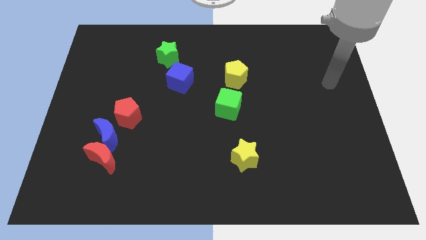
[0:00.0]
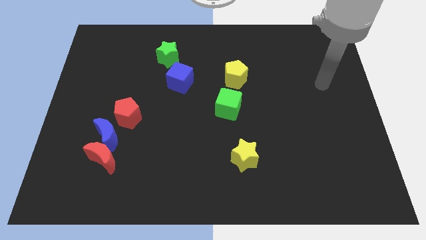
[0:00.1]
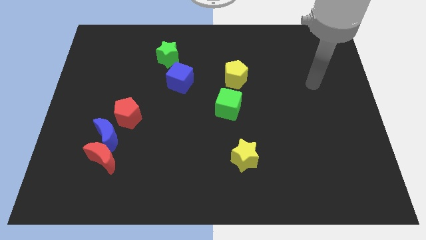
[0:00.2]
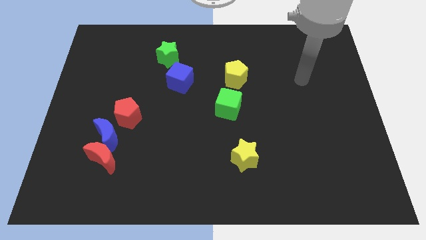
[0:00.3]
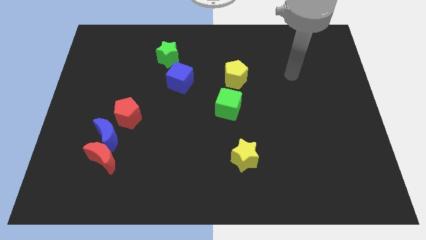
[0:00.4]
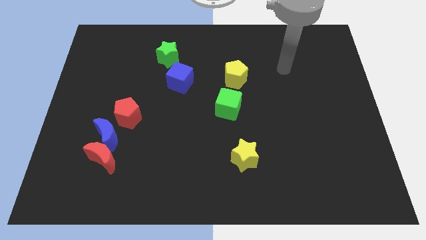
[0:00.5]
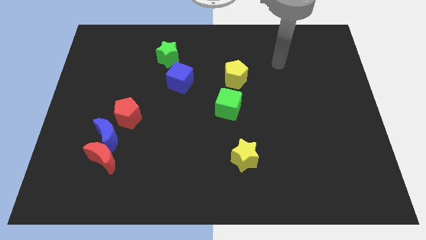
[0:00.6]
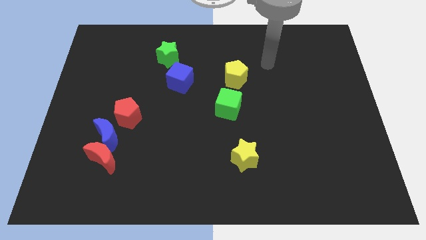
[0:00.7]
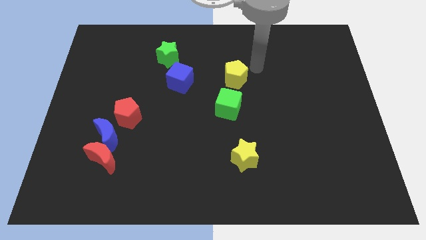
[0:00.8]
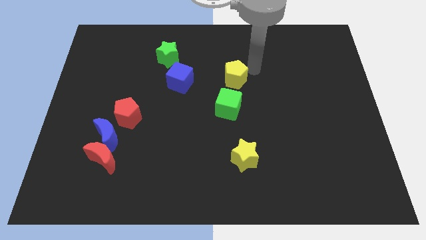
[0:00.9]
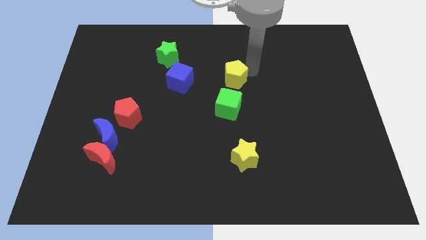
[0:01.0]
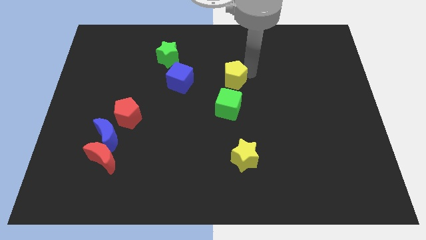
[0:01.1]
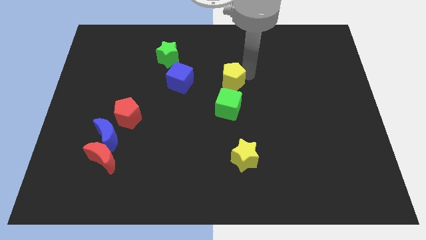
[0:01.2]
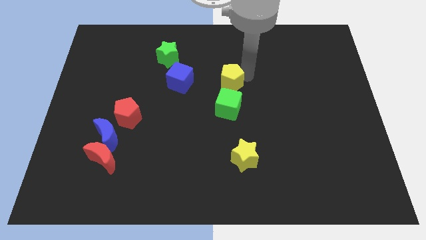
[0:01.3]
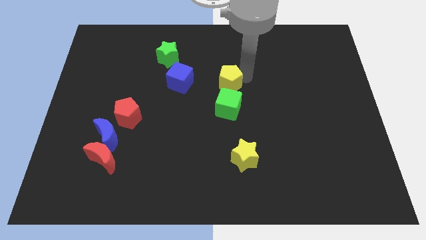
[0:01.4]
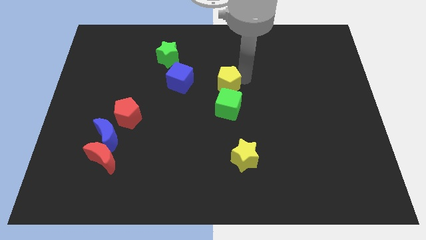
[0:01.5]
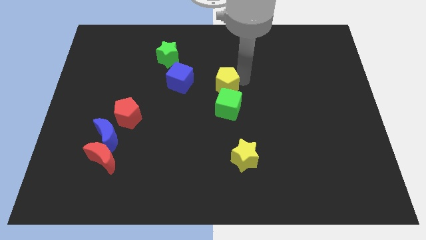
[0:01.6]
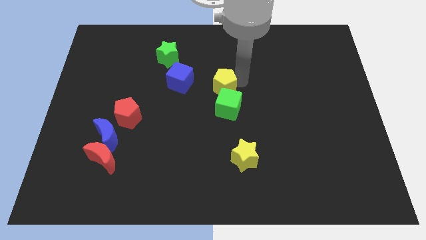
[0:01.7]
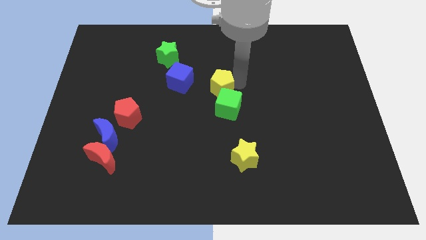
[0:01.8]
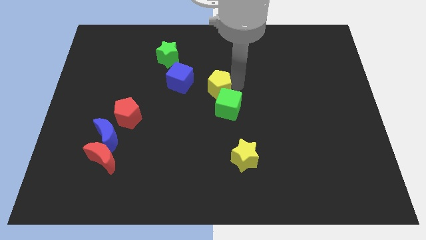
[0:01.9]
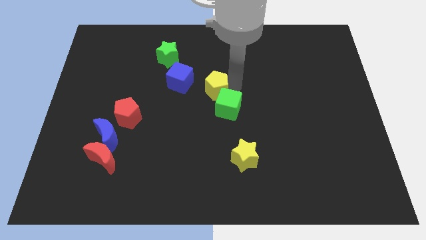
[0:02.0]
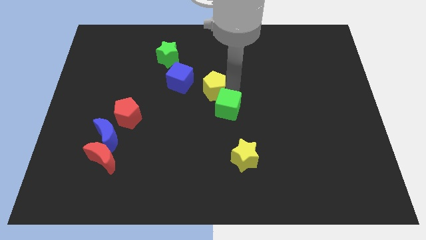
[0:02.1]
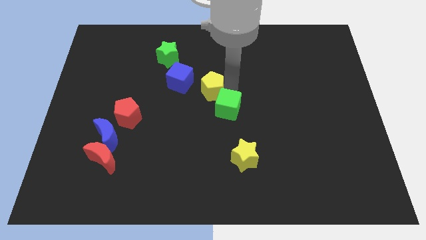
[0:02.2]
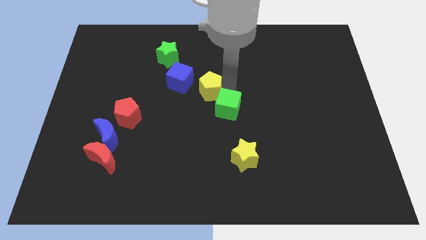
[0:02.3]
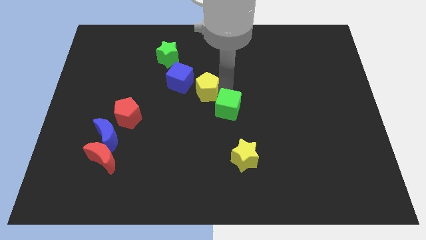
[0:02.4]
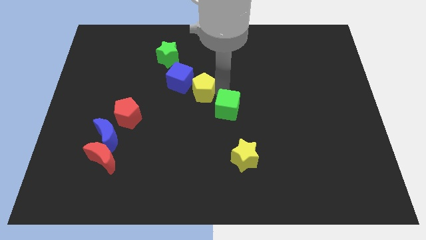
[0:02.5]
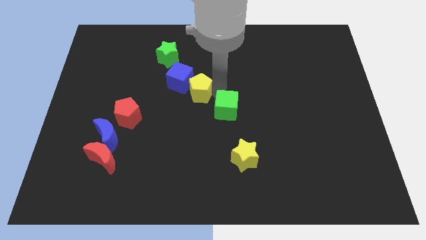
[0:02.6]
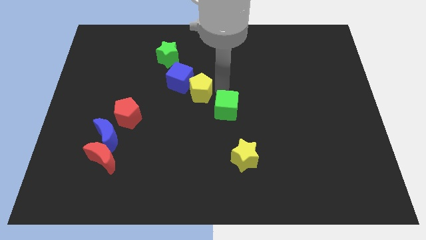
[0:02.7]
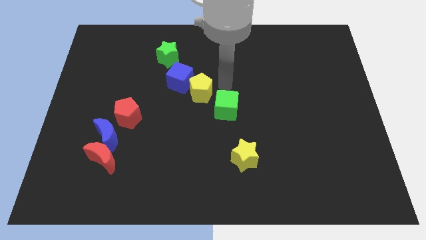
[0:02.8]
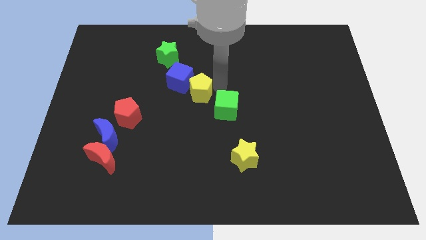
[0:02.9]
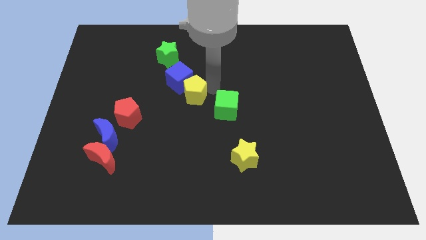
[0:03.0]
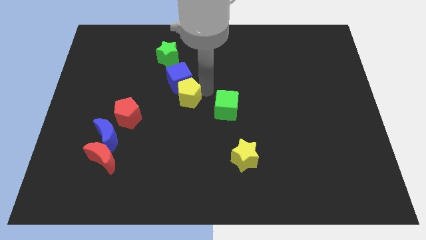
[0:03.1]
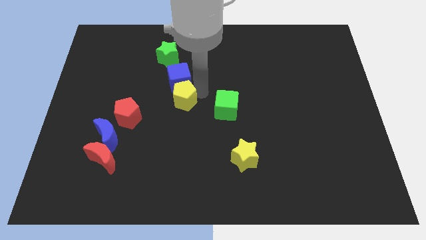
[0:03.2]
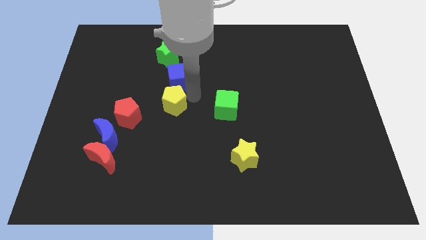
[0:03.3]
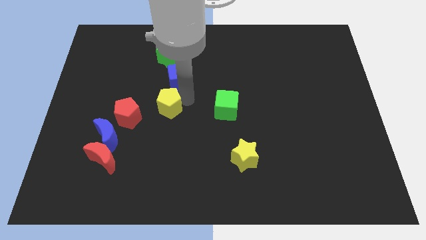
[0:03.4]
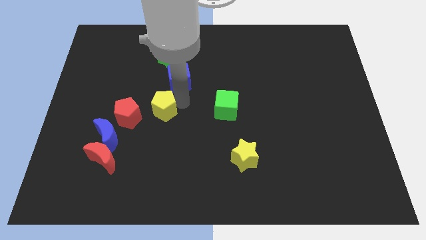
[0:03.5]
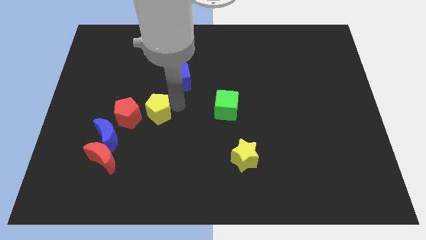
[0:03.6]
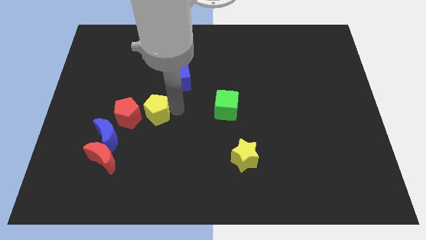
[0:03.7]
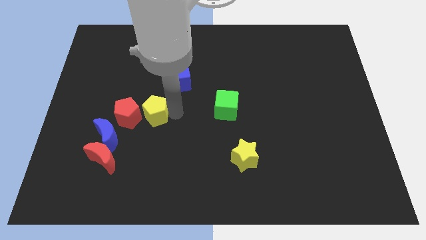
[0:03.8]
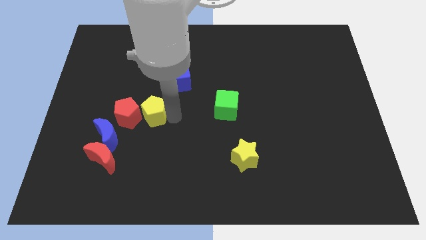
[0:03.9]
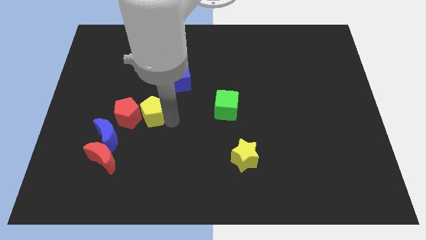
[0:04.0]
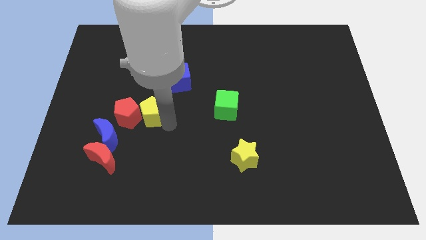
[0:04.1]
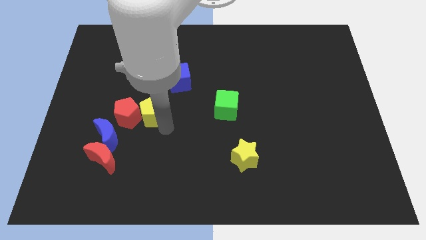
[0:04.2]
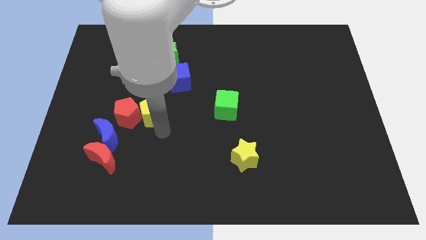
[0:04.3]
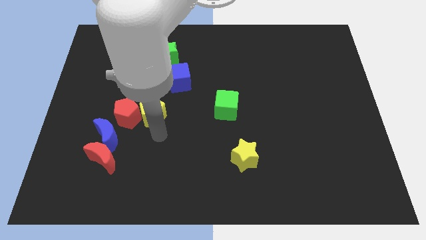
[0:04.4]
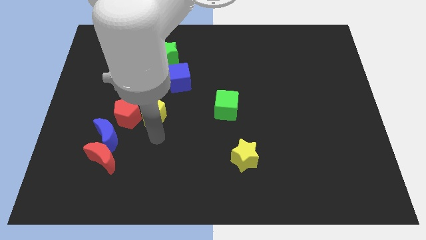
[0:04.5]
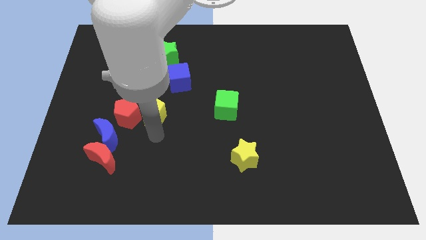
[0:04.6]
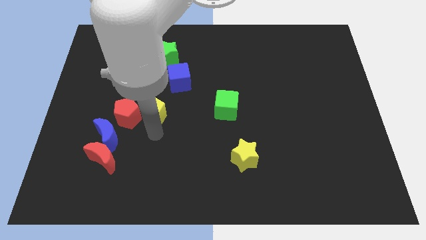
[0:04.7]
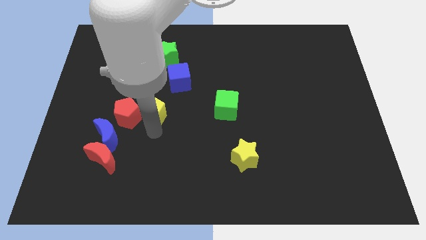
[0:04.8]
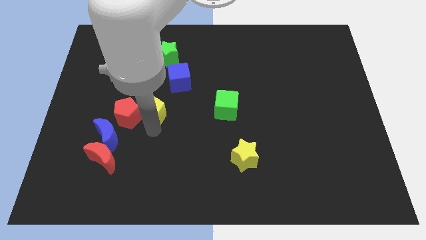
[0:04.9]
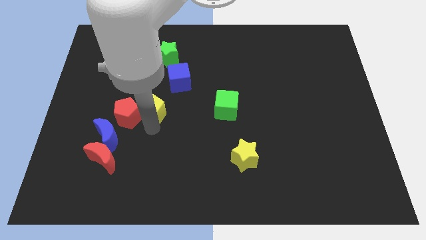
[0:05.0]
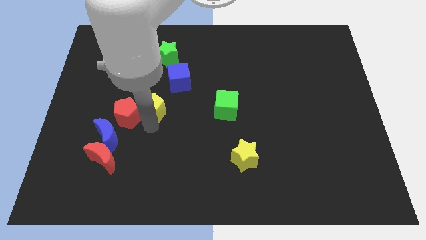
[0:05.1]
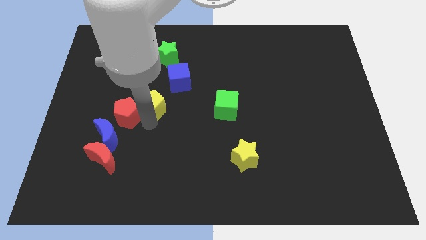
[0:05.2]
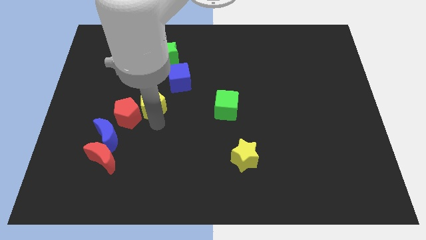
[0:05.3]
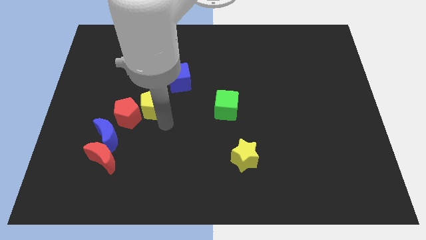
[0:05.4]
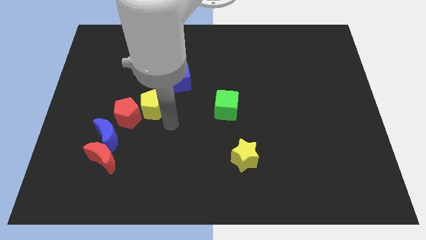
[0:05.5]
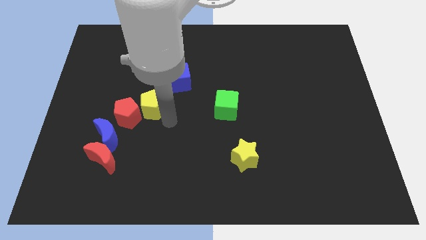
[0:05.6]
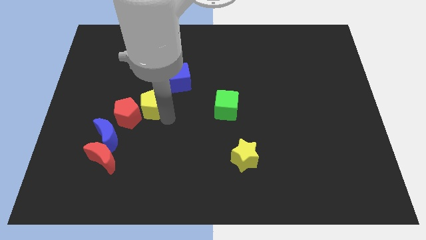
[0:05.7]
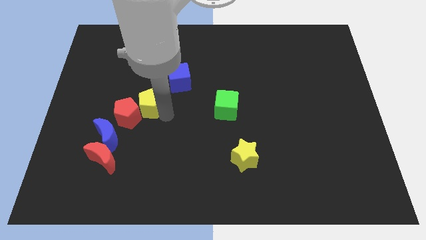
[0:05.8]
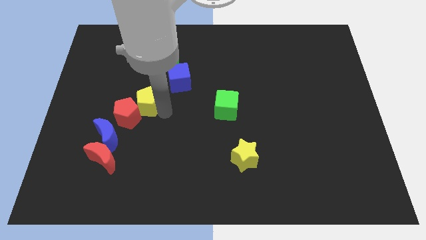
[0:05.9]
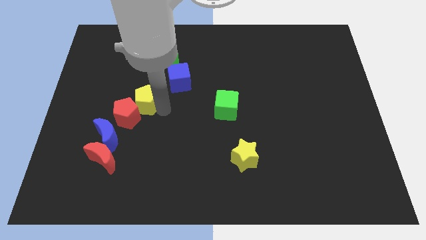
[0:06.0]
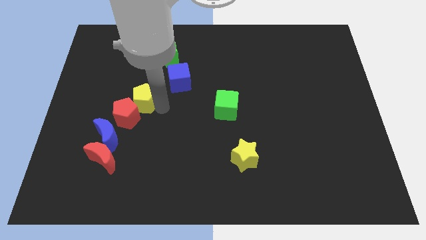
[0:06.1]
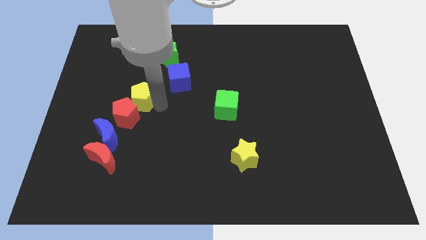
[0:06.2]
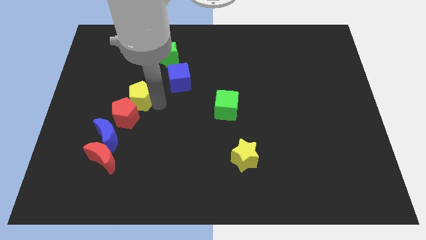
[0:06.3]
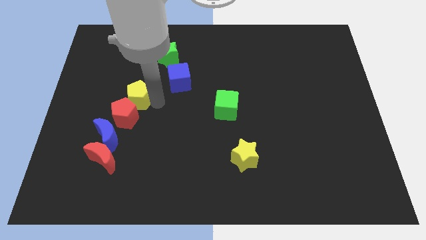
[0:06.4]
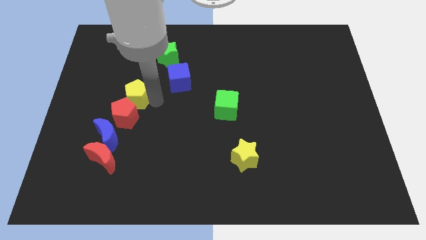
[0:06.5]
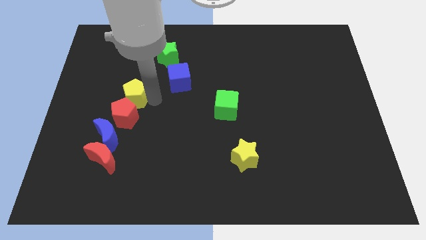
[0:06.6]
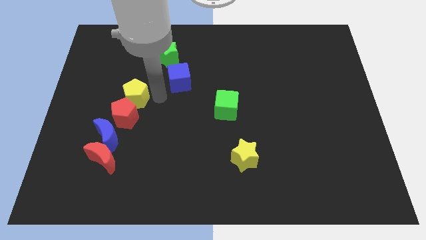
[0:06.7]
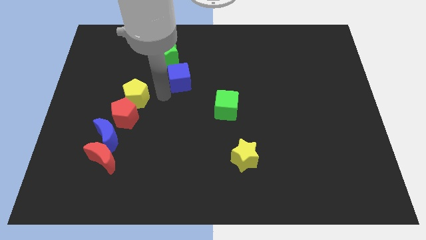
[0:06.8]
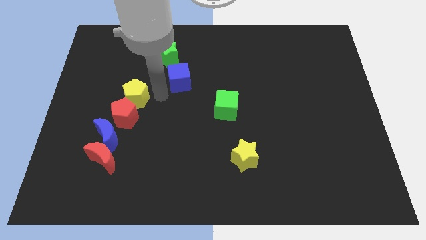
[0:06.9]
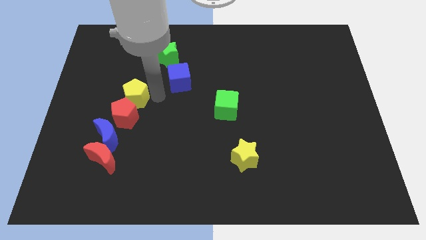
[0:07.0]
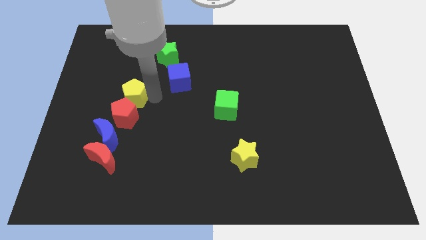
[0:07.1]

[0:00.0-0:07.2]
push the yellow pentagon diagonally up and to the left of the red pentagon
